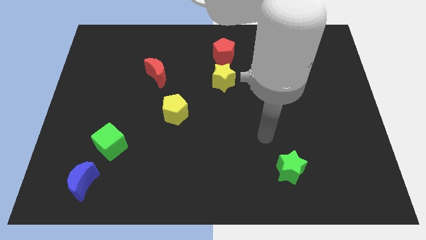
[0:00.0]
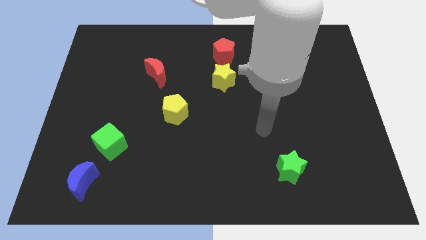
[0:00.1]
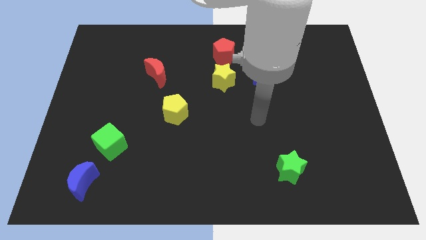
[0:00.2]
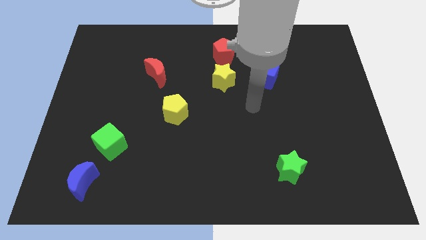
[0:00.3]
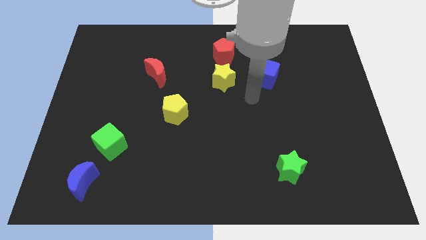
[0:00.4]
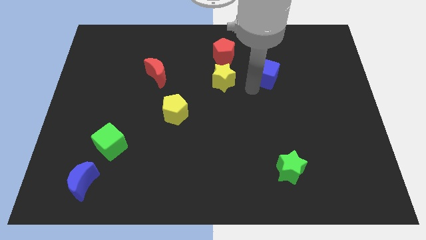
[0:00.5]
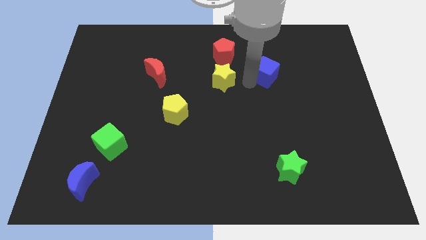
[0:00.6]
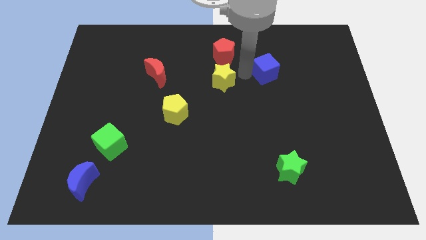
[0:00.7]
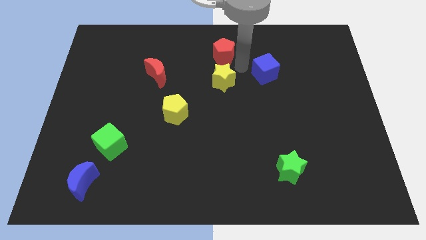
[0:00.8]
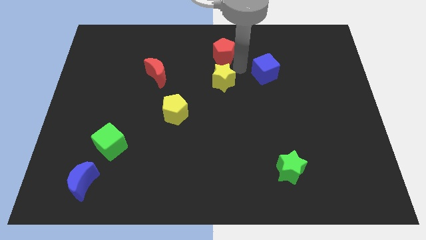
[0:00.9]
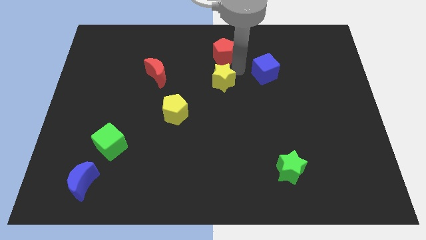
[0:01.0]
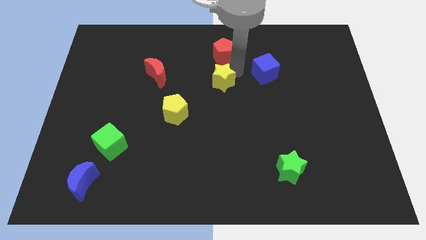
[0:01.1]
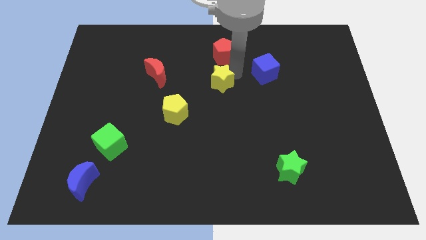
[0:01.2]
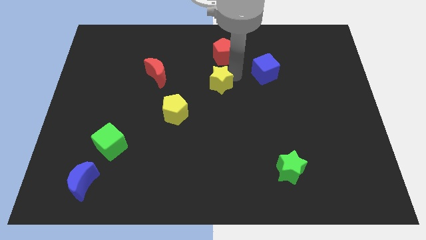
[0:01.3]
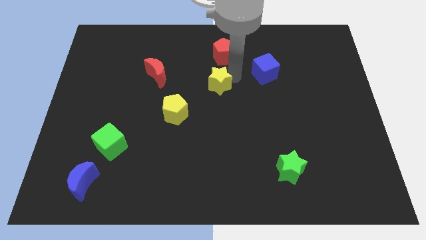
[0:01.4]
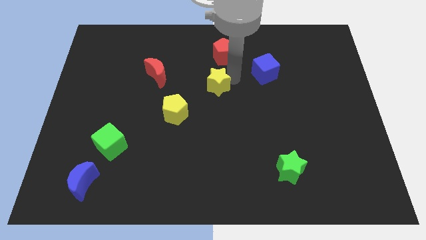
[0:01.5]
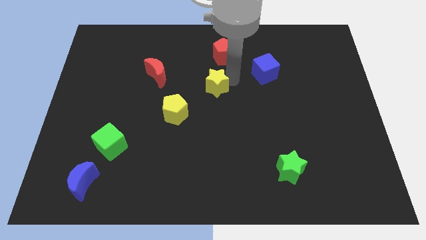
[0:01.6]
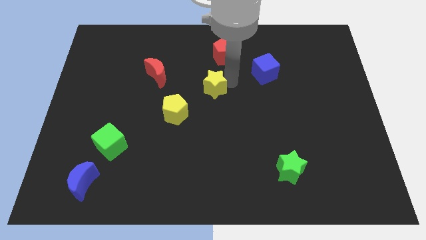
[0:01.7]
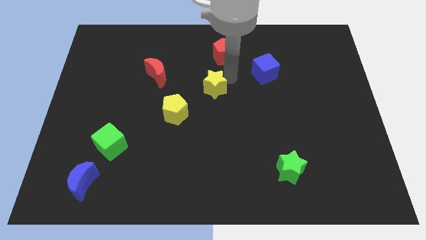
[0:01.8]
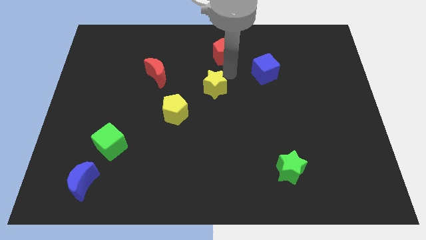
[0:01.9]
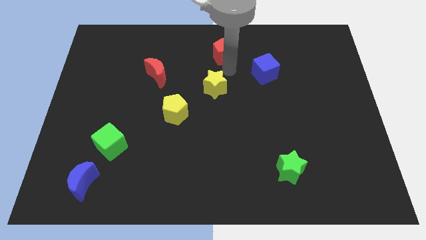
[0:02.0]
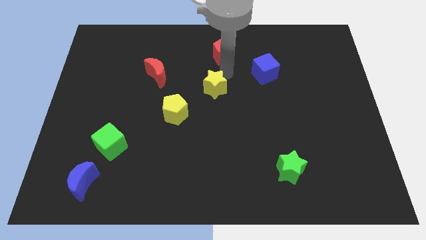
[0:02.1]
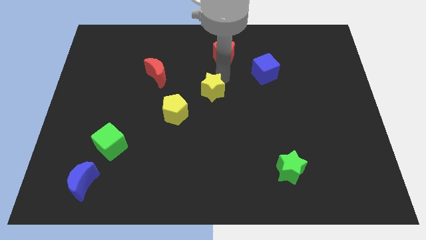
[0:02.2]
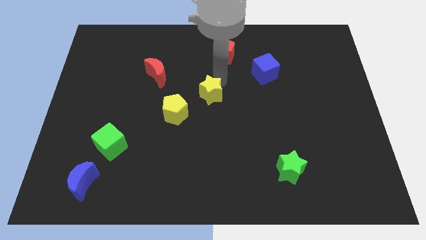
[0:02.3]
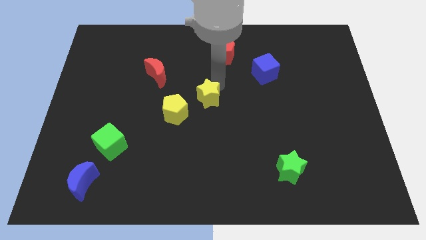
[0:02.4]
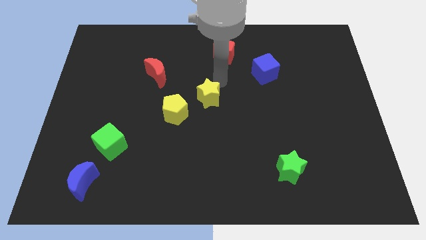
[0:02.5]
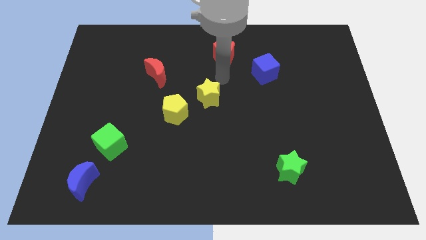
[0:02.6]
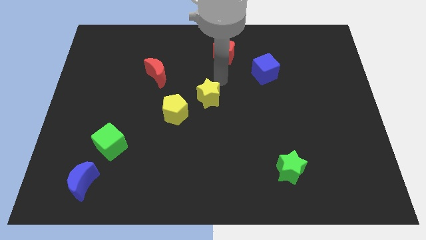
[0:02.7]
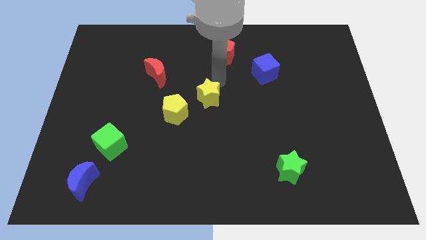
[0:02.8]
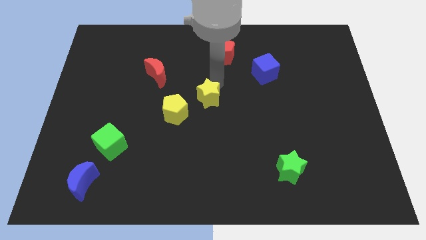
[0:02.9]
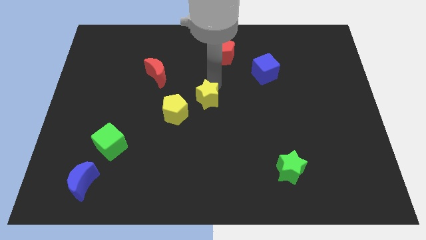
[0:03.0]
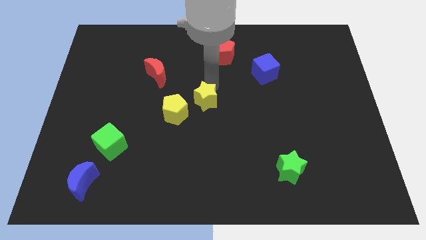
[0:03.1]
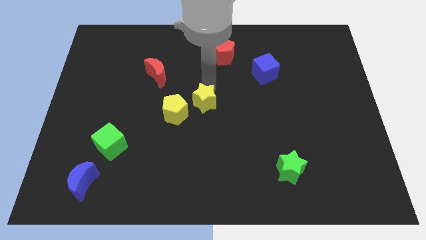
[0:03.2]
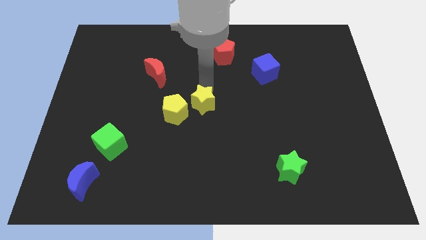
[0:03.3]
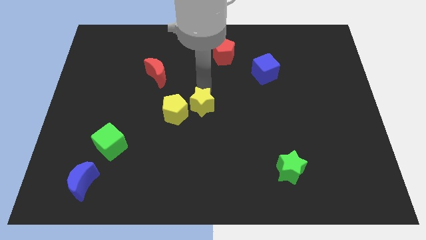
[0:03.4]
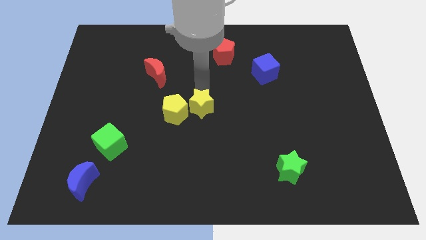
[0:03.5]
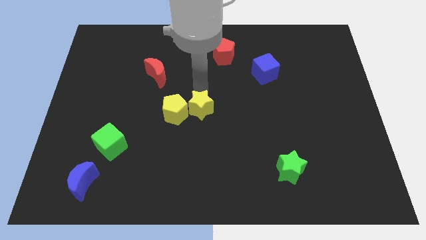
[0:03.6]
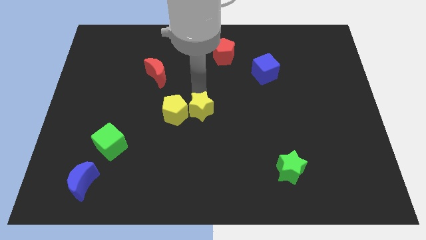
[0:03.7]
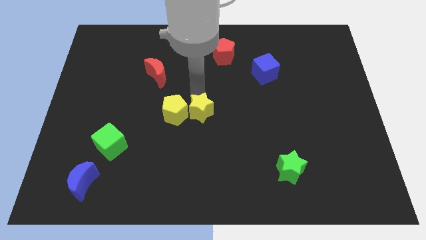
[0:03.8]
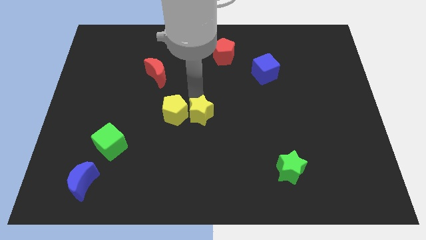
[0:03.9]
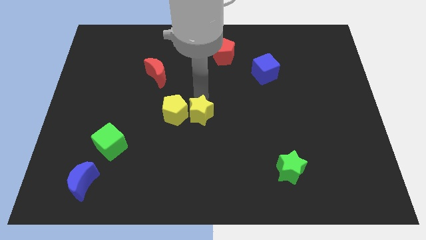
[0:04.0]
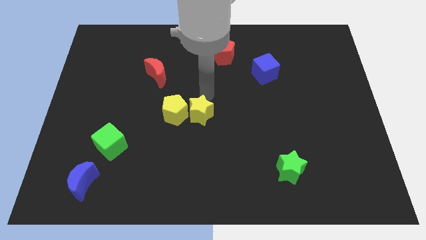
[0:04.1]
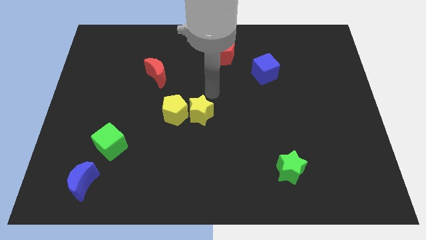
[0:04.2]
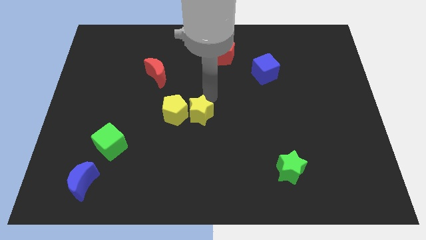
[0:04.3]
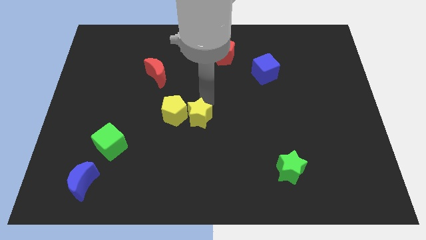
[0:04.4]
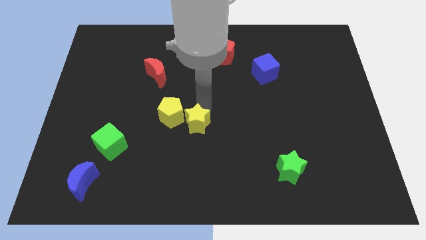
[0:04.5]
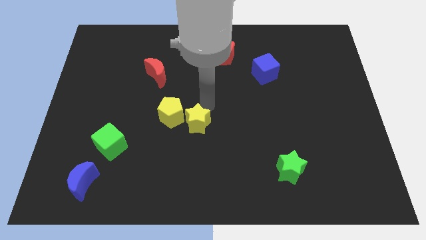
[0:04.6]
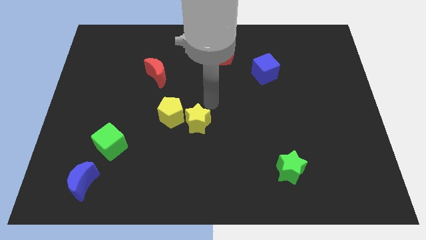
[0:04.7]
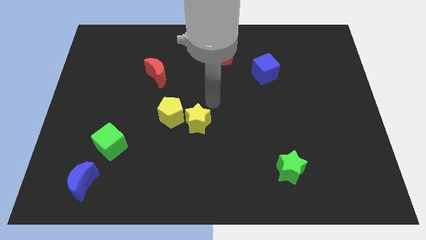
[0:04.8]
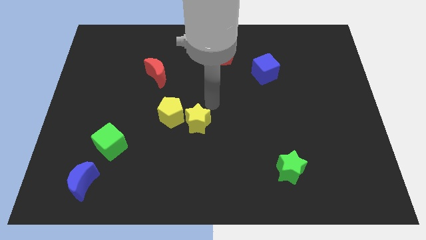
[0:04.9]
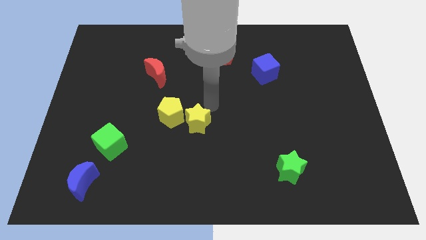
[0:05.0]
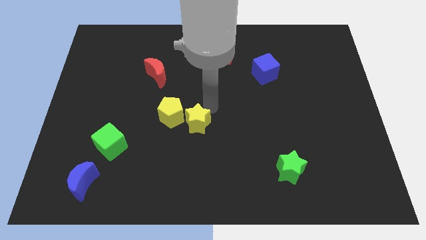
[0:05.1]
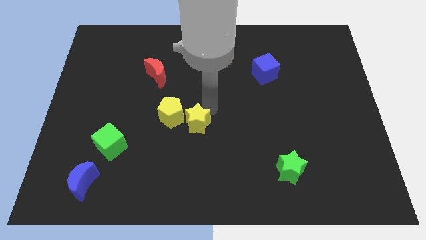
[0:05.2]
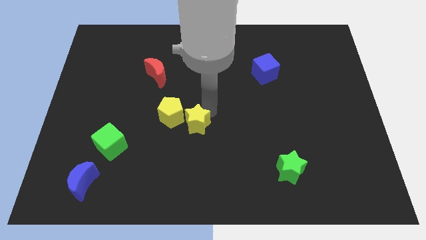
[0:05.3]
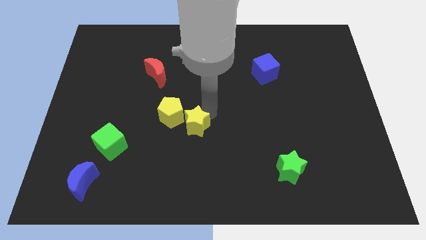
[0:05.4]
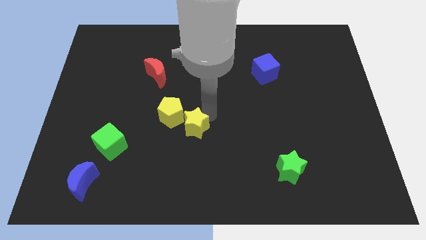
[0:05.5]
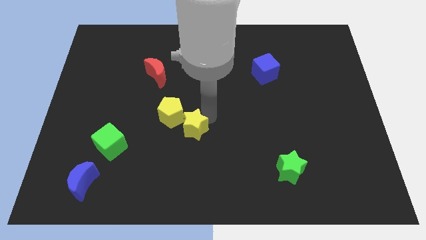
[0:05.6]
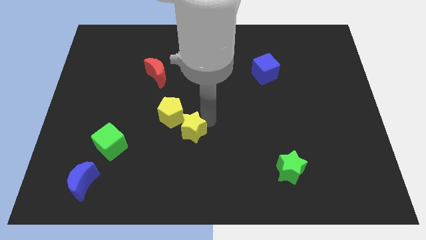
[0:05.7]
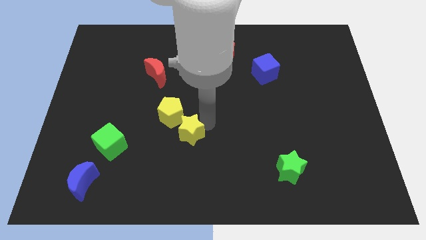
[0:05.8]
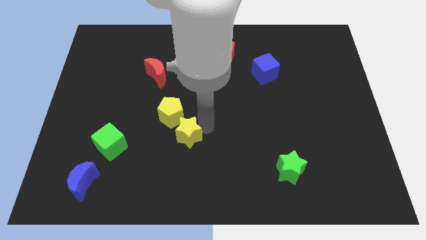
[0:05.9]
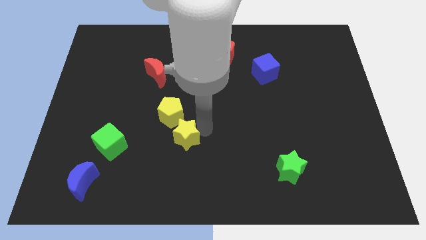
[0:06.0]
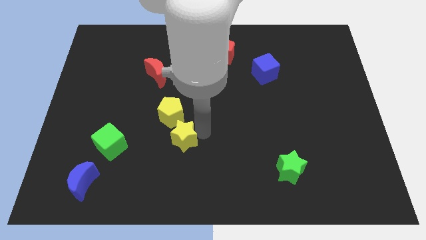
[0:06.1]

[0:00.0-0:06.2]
move the yellow star to the right side of the green cube
